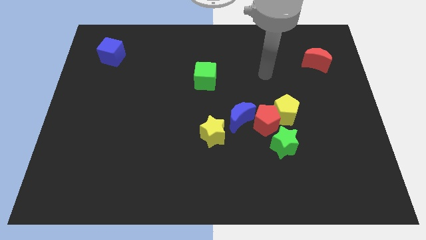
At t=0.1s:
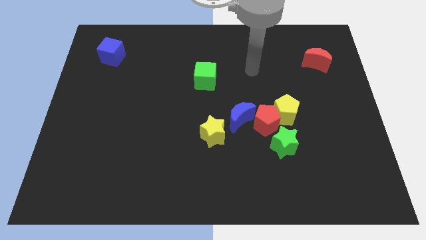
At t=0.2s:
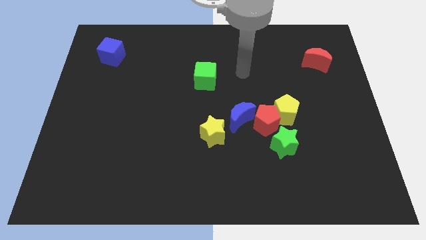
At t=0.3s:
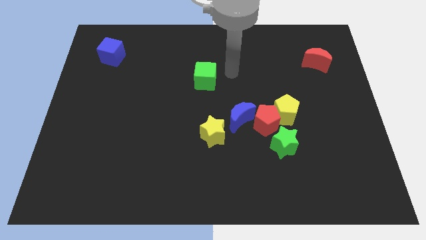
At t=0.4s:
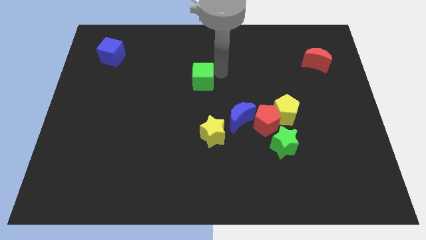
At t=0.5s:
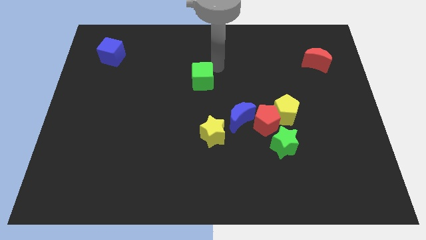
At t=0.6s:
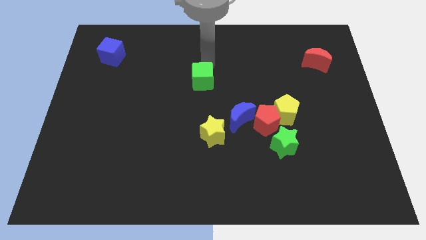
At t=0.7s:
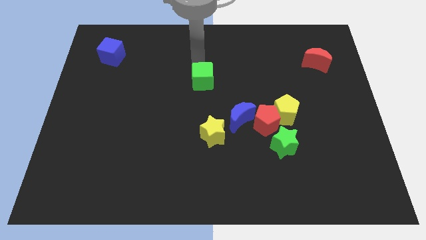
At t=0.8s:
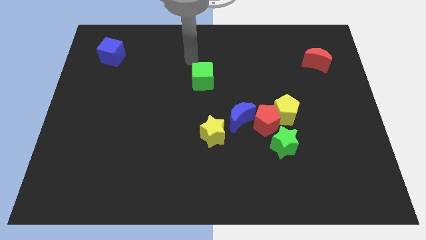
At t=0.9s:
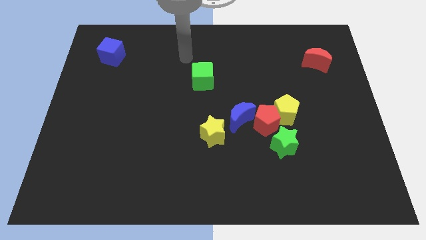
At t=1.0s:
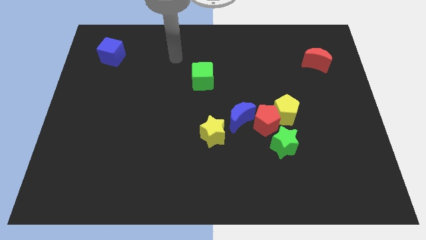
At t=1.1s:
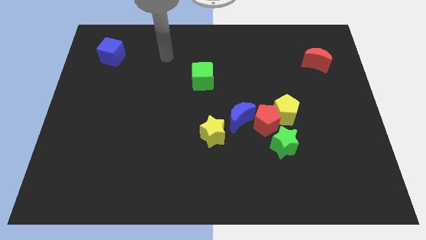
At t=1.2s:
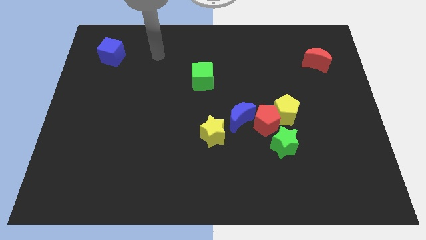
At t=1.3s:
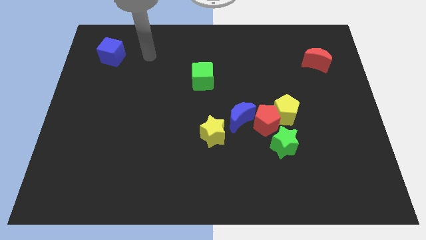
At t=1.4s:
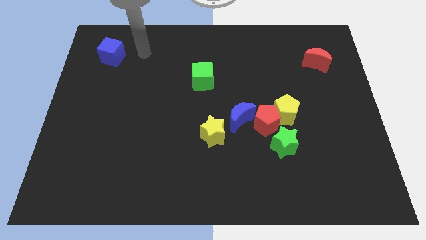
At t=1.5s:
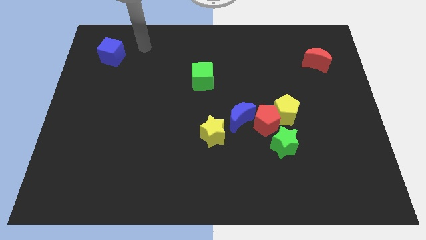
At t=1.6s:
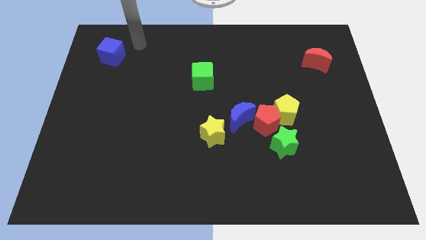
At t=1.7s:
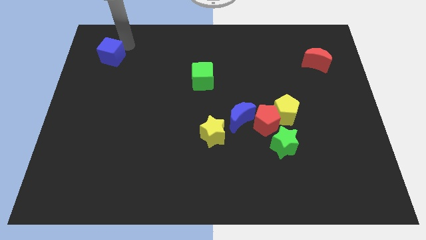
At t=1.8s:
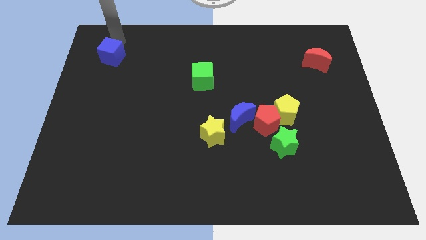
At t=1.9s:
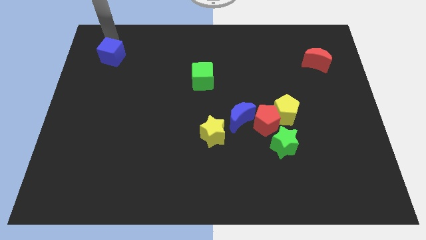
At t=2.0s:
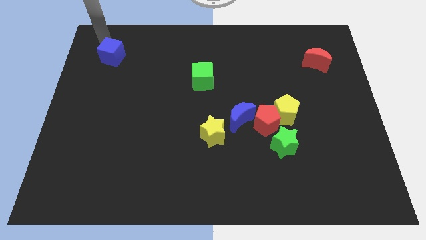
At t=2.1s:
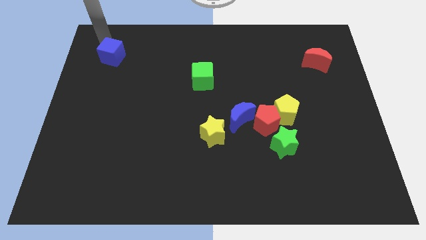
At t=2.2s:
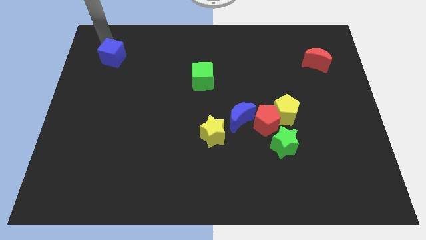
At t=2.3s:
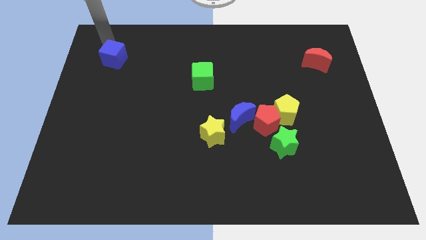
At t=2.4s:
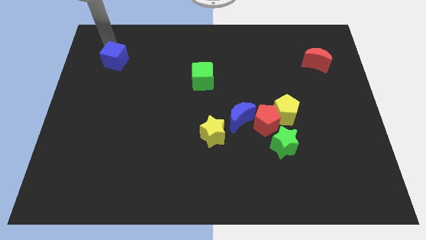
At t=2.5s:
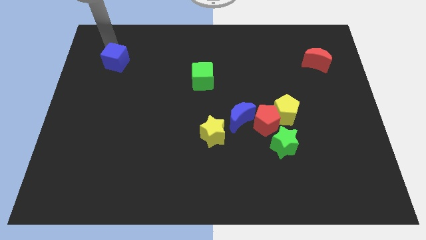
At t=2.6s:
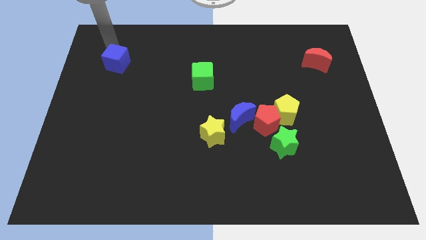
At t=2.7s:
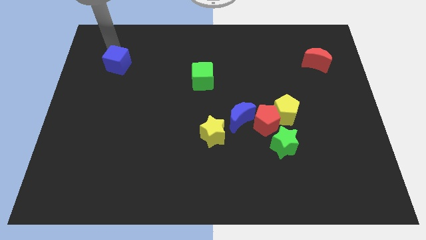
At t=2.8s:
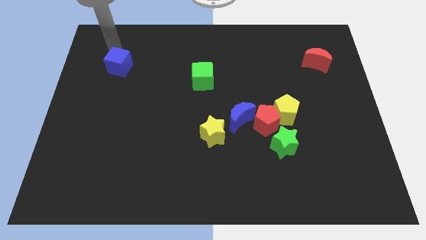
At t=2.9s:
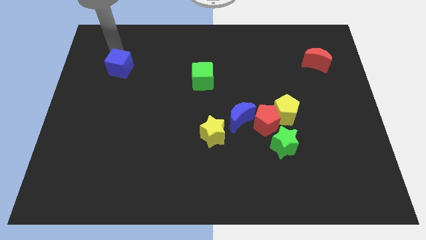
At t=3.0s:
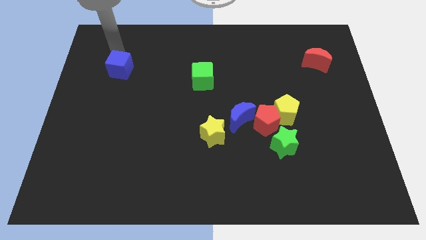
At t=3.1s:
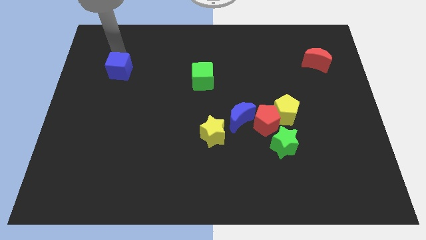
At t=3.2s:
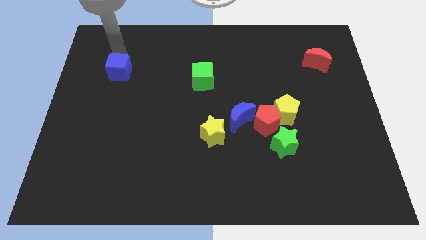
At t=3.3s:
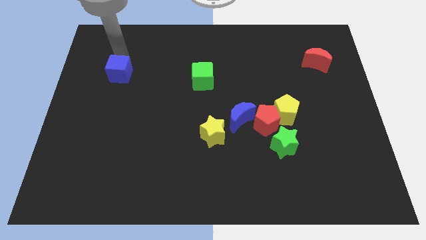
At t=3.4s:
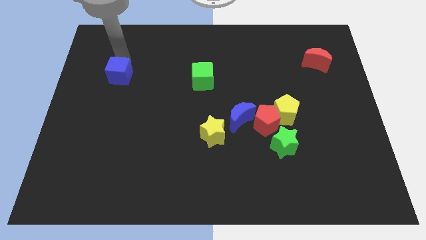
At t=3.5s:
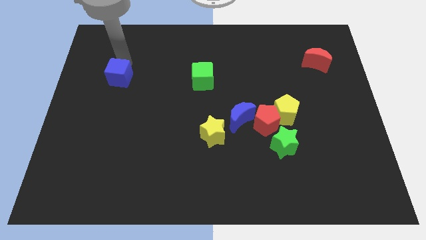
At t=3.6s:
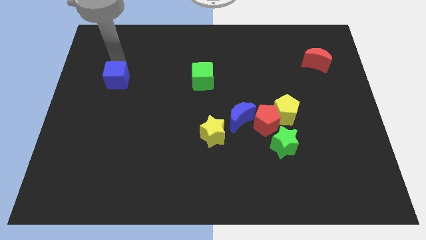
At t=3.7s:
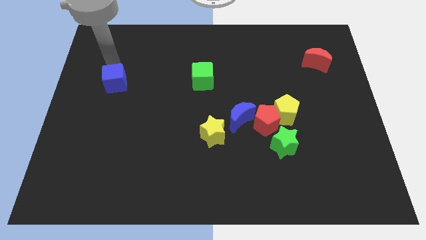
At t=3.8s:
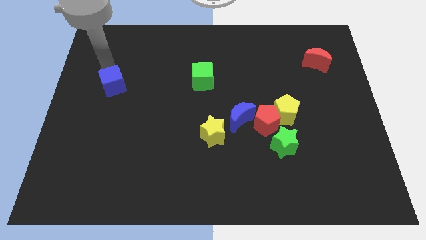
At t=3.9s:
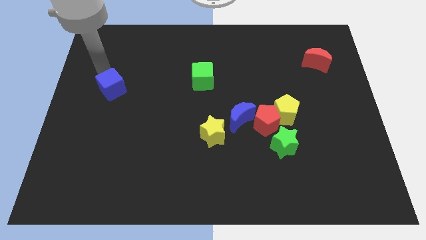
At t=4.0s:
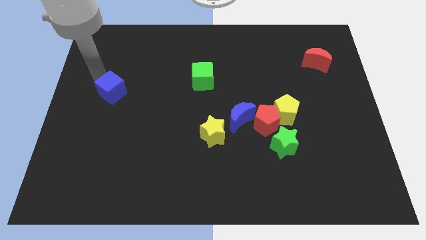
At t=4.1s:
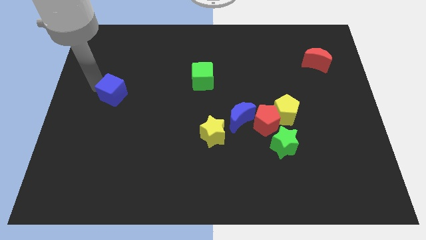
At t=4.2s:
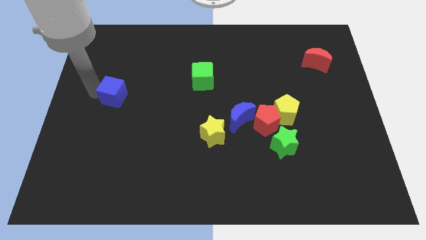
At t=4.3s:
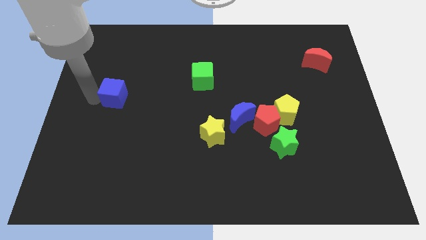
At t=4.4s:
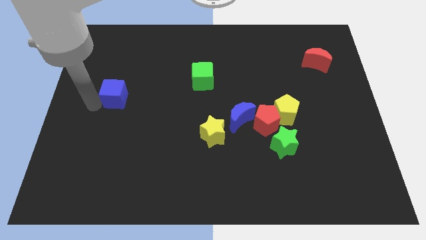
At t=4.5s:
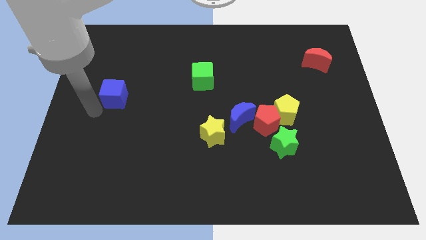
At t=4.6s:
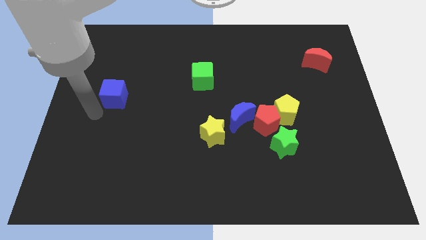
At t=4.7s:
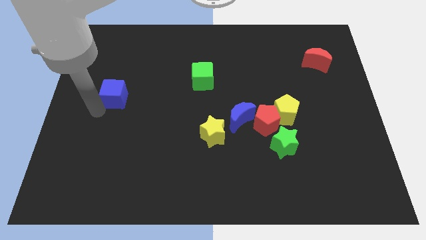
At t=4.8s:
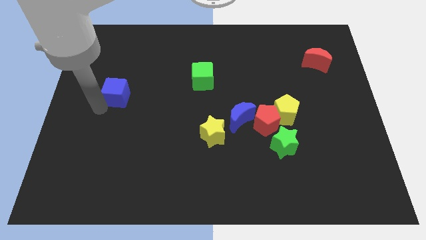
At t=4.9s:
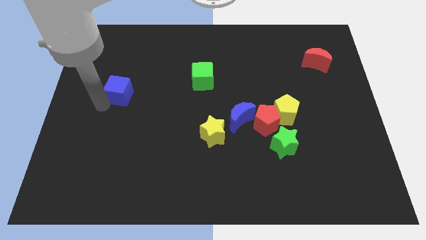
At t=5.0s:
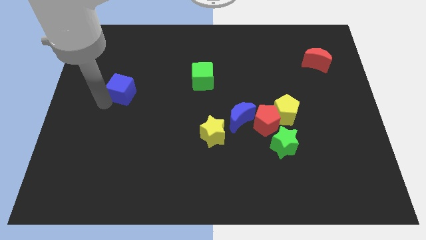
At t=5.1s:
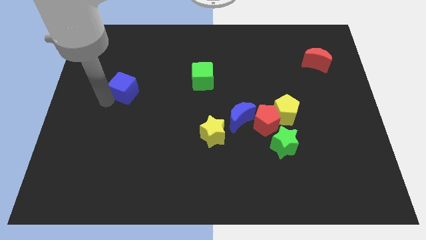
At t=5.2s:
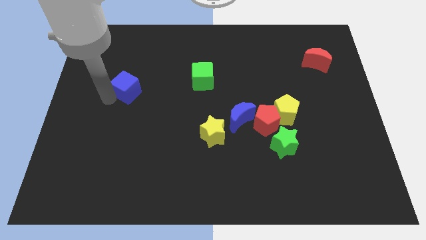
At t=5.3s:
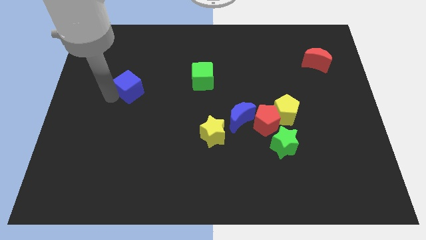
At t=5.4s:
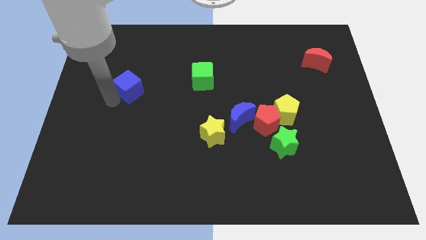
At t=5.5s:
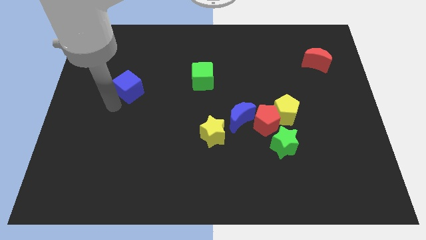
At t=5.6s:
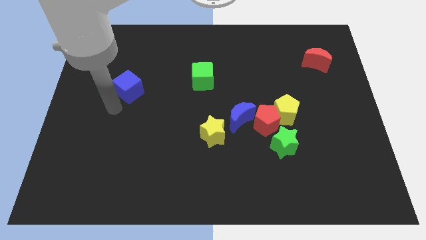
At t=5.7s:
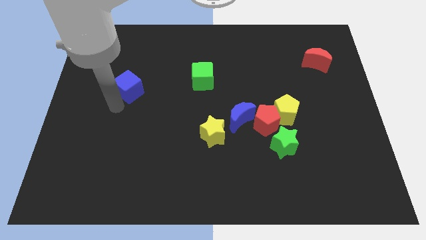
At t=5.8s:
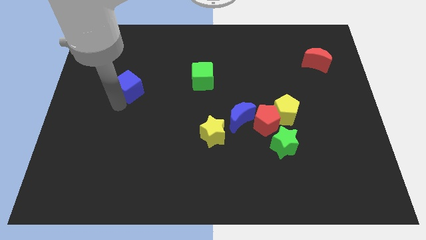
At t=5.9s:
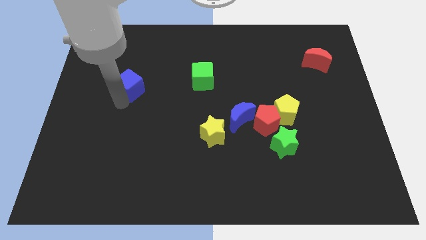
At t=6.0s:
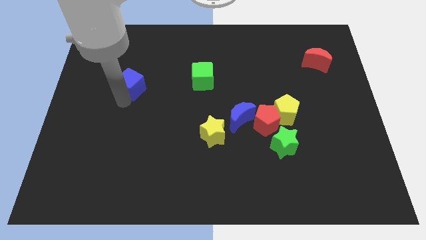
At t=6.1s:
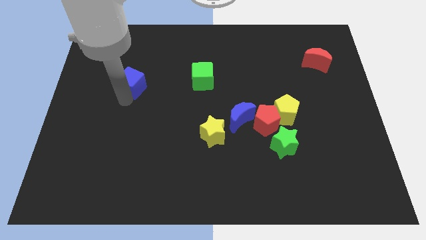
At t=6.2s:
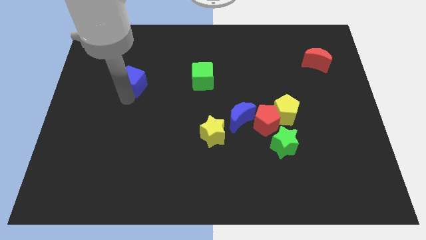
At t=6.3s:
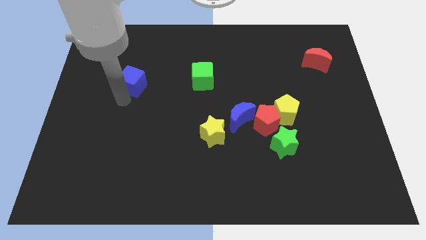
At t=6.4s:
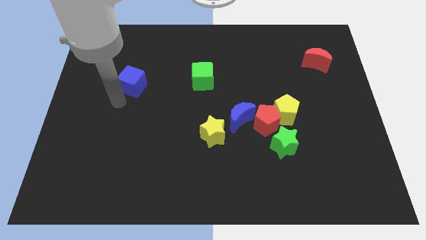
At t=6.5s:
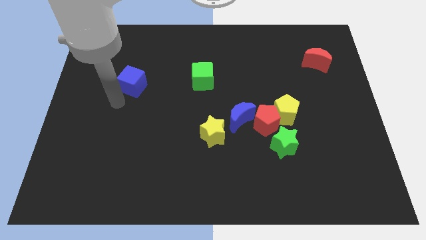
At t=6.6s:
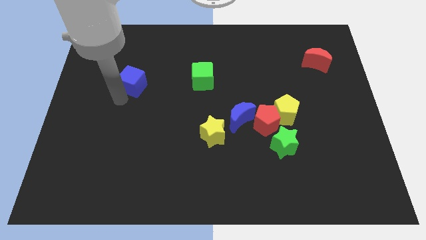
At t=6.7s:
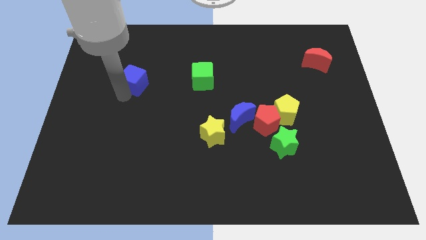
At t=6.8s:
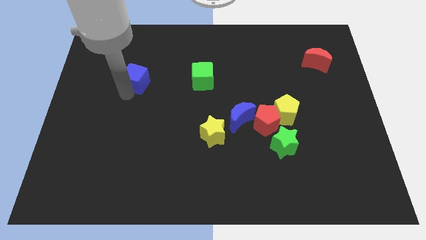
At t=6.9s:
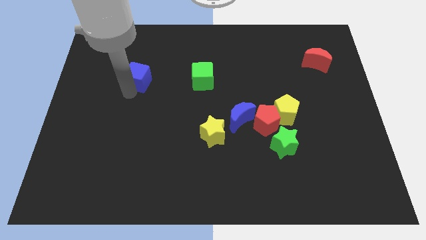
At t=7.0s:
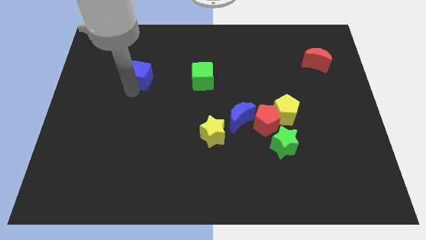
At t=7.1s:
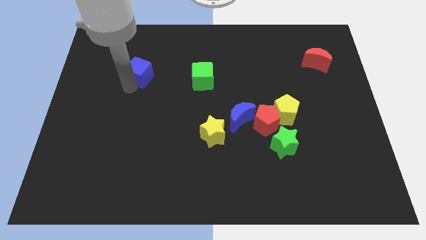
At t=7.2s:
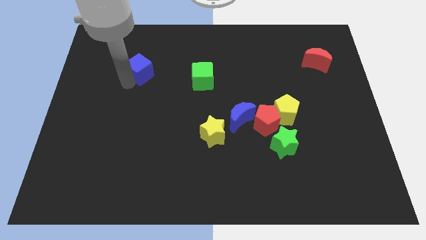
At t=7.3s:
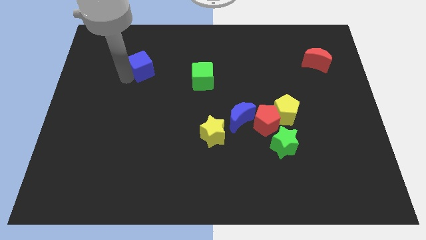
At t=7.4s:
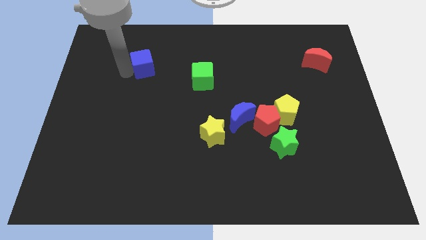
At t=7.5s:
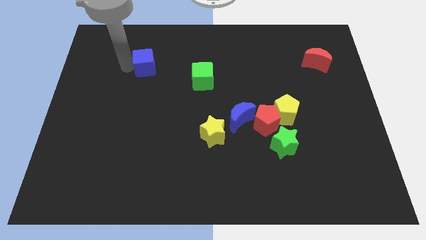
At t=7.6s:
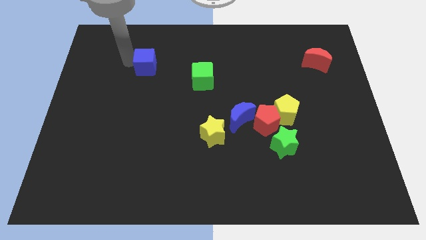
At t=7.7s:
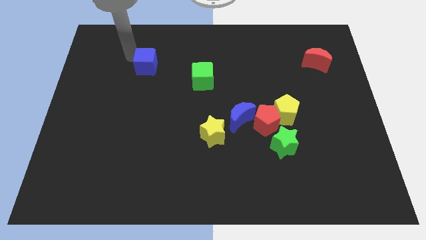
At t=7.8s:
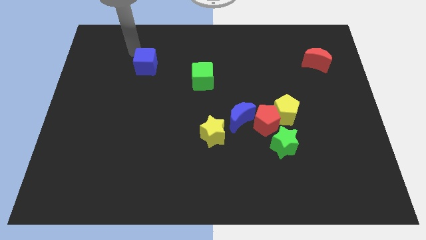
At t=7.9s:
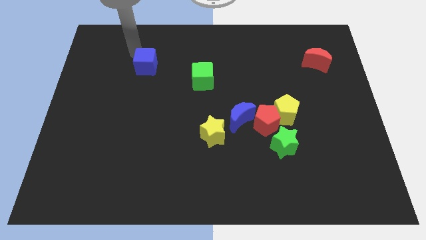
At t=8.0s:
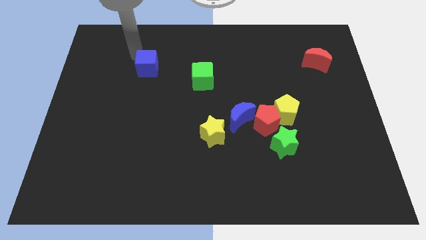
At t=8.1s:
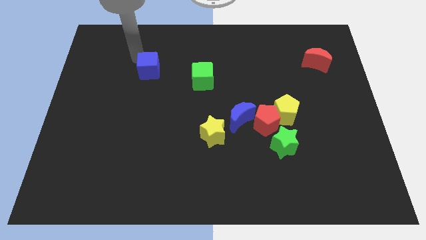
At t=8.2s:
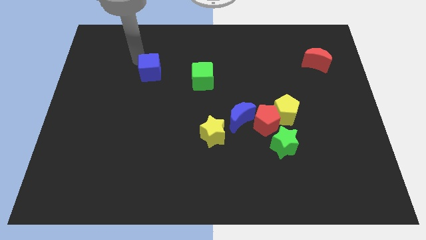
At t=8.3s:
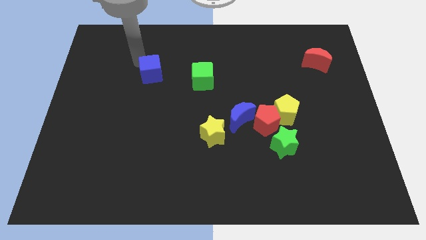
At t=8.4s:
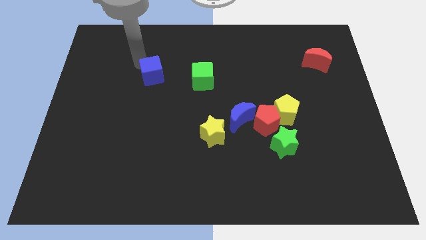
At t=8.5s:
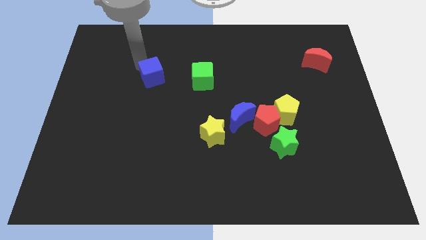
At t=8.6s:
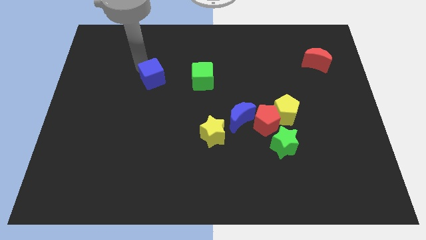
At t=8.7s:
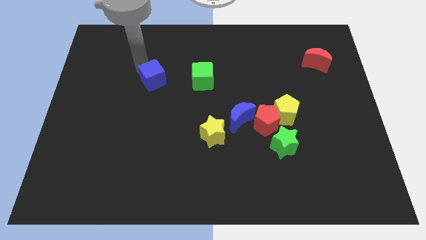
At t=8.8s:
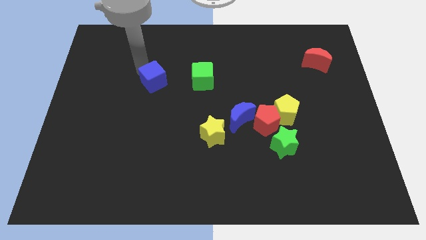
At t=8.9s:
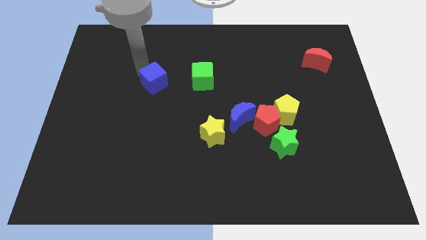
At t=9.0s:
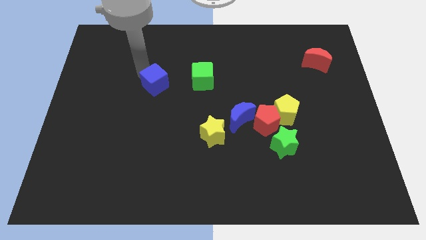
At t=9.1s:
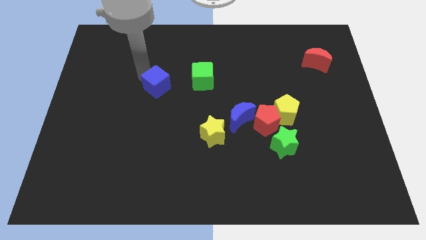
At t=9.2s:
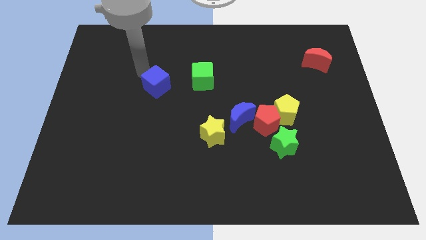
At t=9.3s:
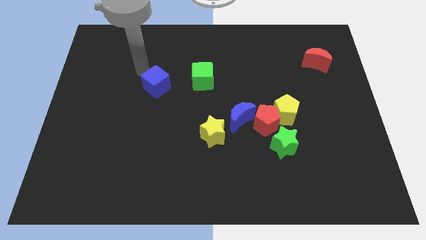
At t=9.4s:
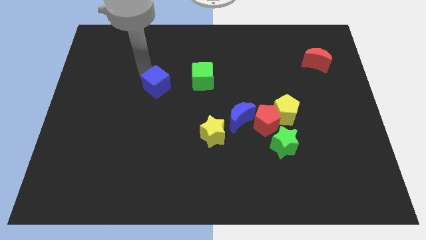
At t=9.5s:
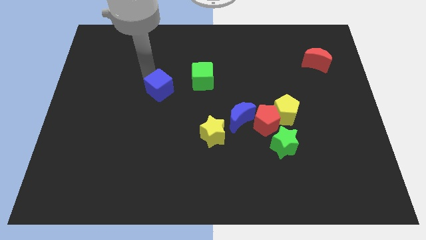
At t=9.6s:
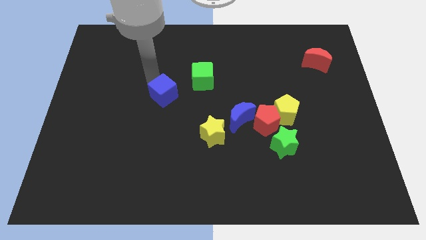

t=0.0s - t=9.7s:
slide the blue cube down and right diagonally
